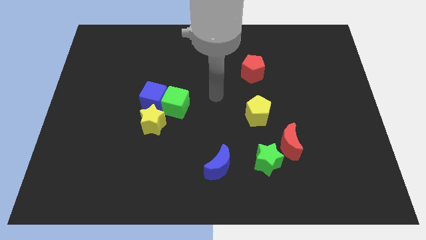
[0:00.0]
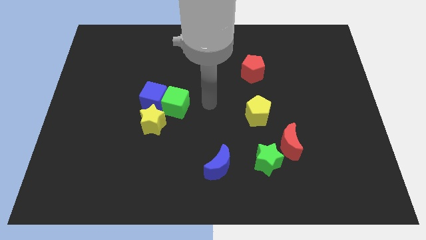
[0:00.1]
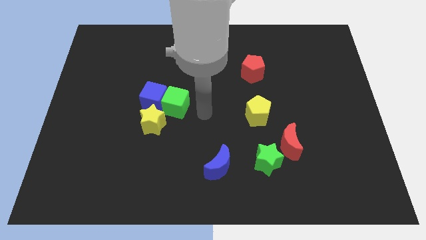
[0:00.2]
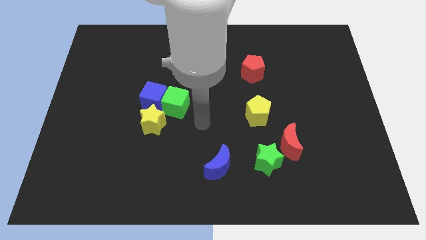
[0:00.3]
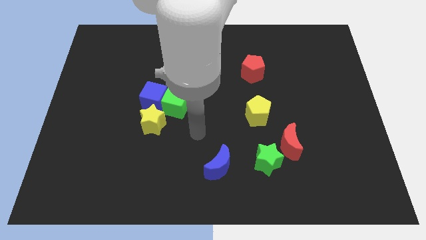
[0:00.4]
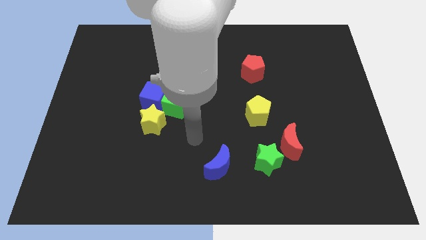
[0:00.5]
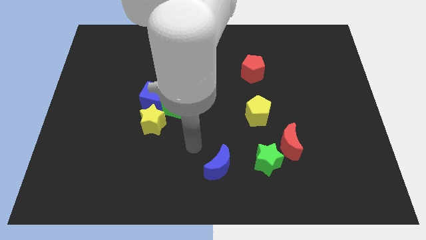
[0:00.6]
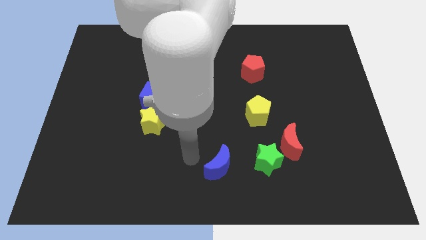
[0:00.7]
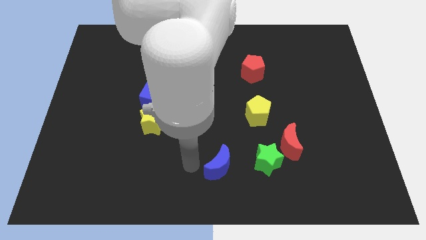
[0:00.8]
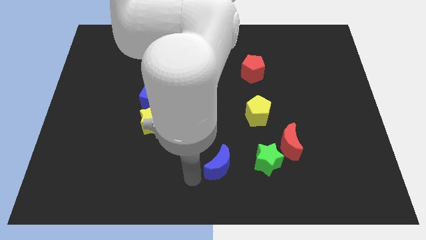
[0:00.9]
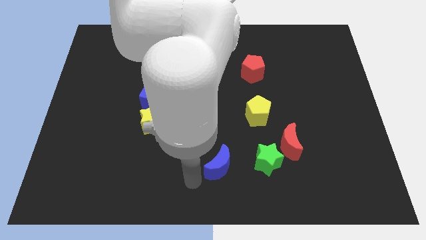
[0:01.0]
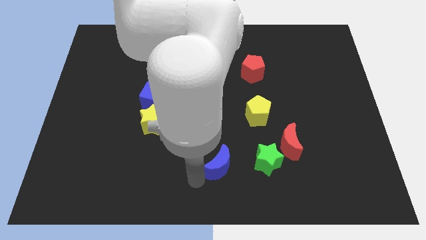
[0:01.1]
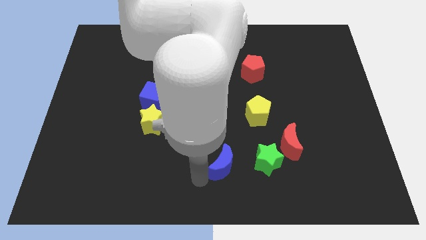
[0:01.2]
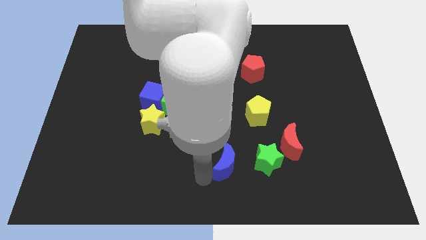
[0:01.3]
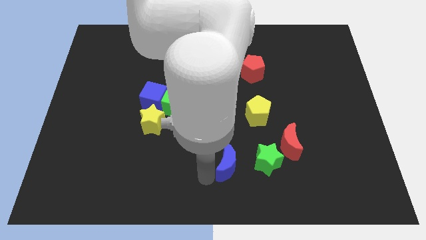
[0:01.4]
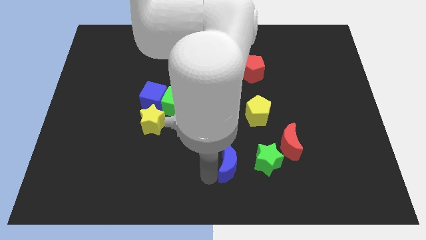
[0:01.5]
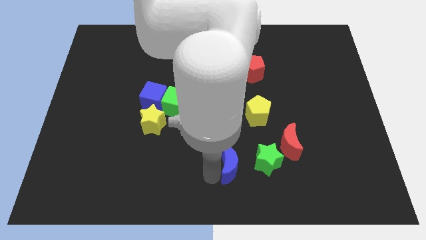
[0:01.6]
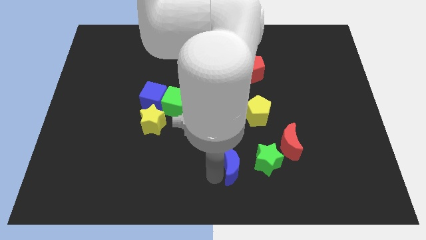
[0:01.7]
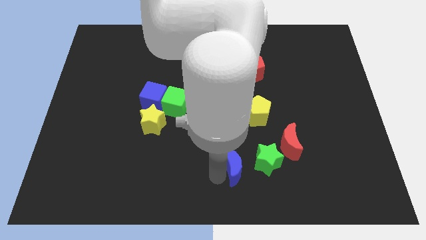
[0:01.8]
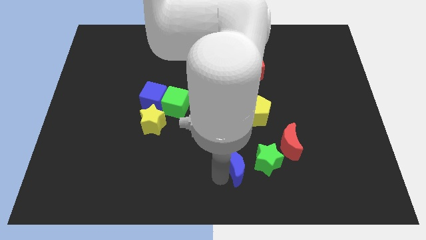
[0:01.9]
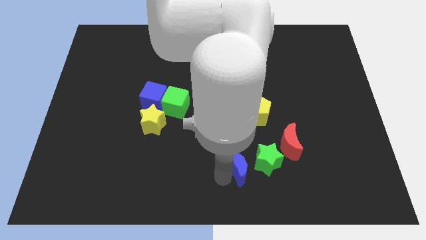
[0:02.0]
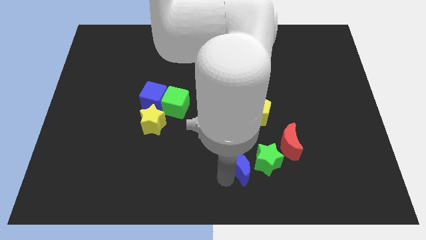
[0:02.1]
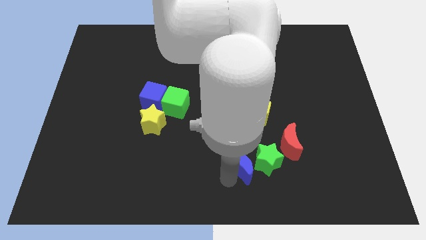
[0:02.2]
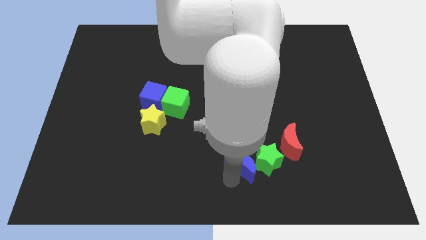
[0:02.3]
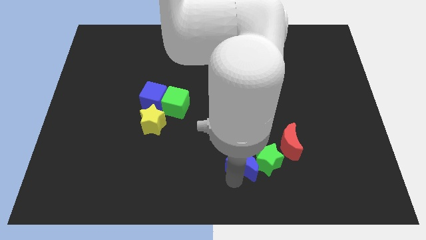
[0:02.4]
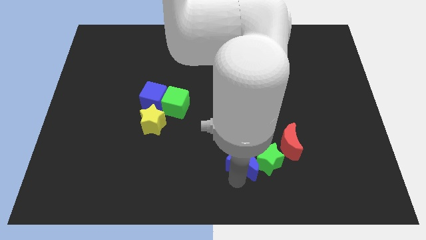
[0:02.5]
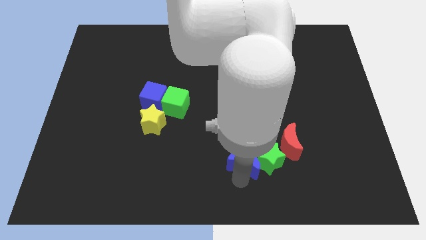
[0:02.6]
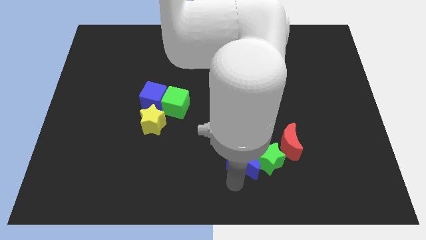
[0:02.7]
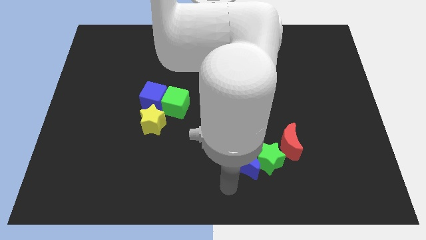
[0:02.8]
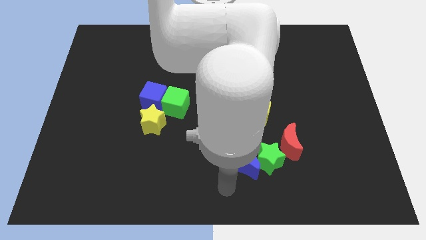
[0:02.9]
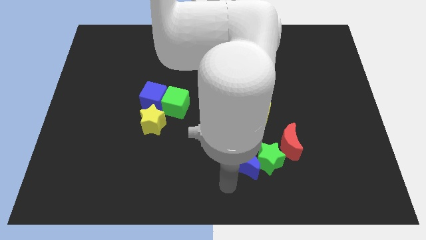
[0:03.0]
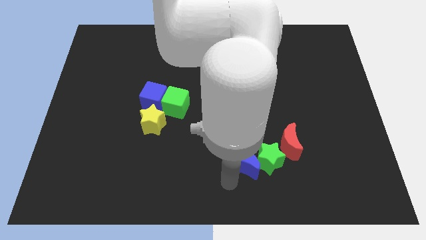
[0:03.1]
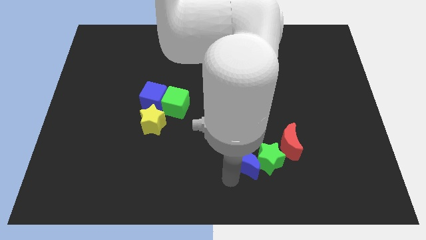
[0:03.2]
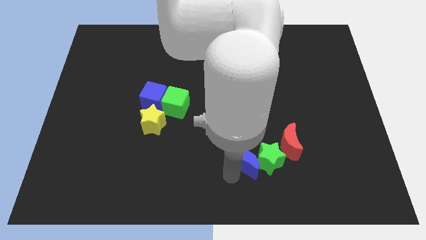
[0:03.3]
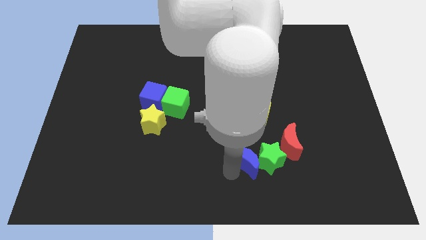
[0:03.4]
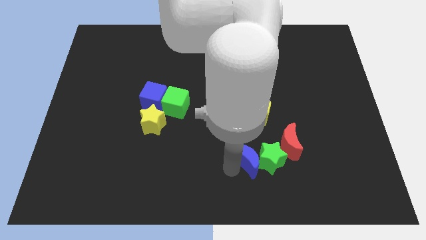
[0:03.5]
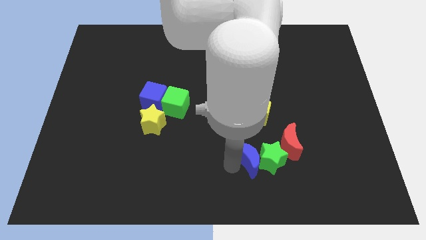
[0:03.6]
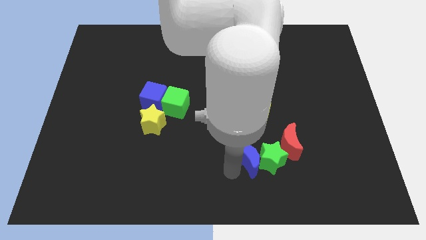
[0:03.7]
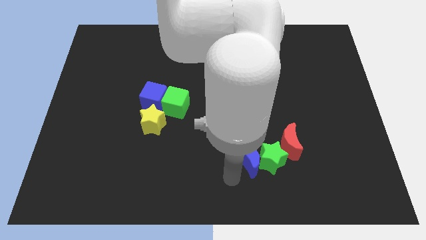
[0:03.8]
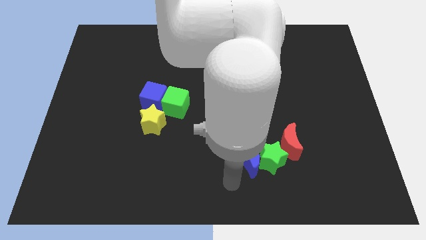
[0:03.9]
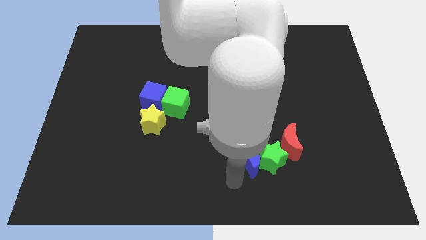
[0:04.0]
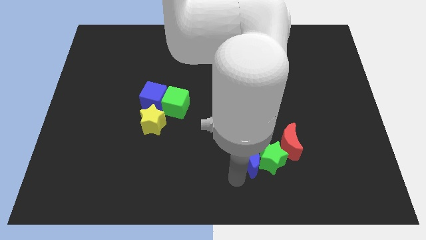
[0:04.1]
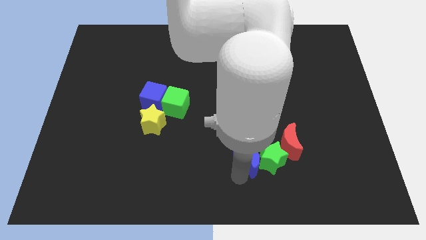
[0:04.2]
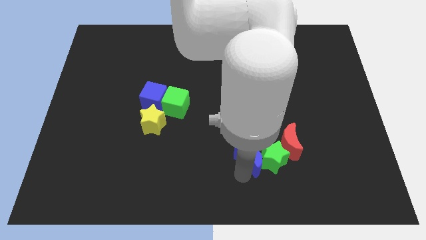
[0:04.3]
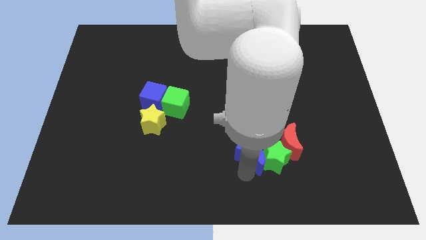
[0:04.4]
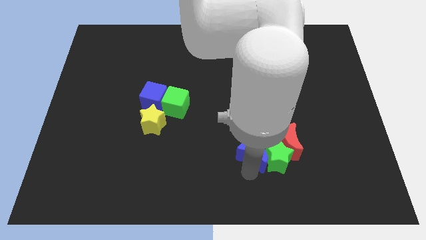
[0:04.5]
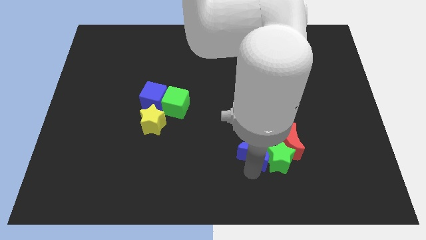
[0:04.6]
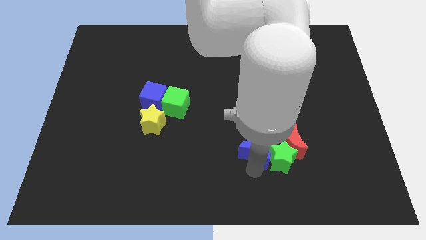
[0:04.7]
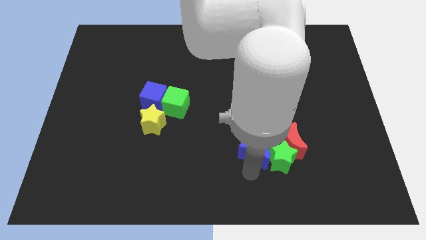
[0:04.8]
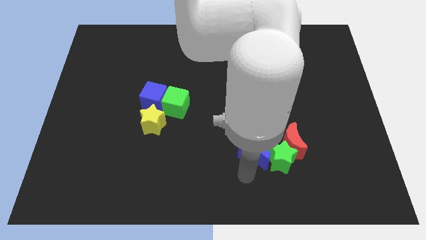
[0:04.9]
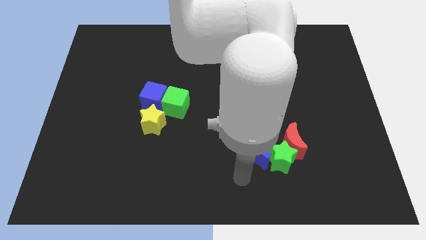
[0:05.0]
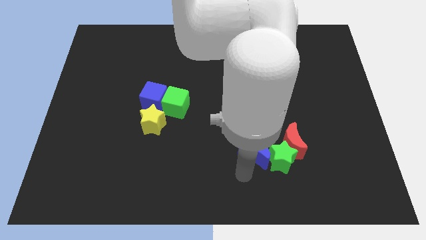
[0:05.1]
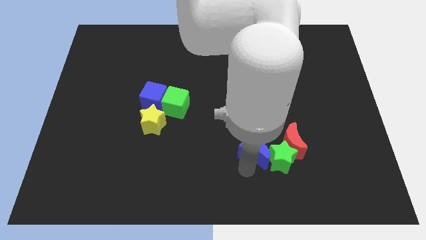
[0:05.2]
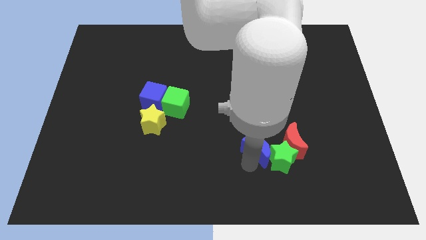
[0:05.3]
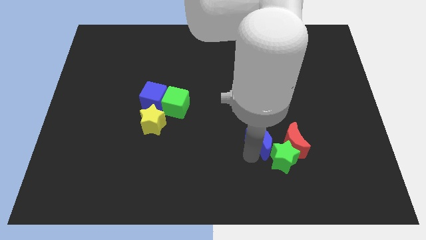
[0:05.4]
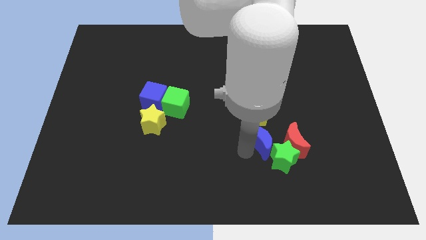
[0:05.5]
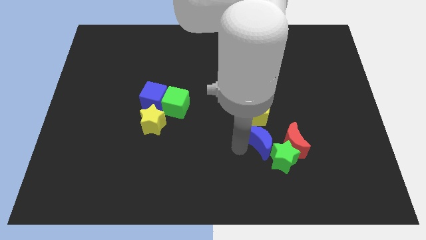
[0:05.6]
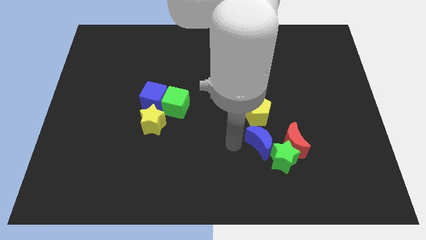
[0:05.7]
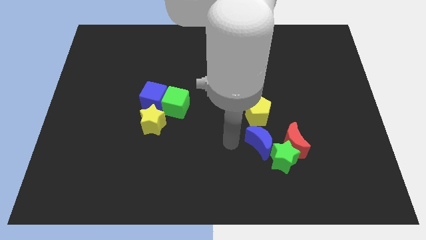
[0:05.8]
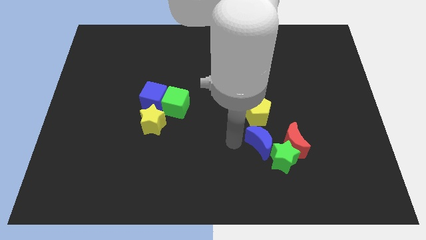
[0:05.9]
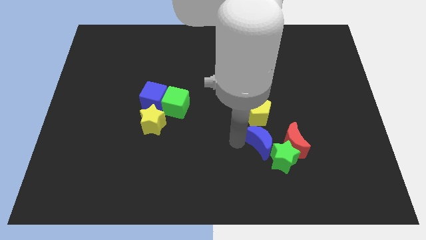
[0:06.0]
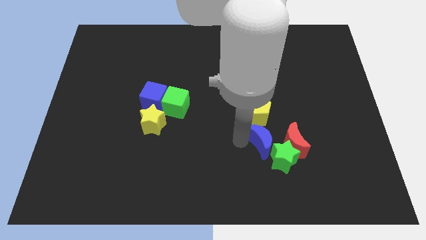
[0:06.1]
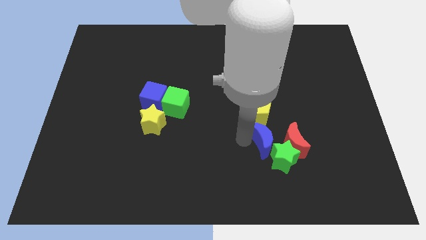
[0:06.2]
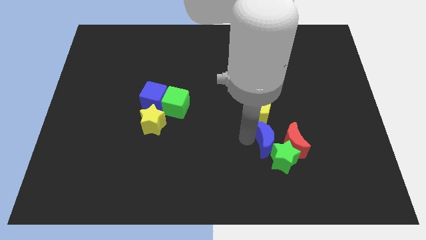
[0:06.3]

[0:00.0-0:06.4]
push the blue moon to the red moon
